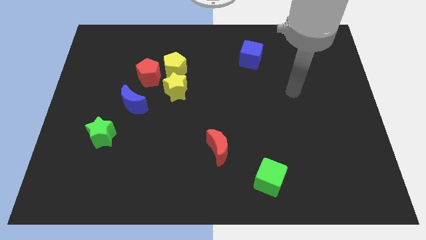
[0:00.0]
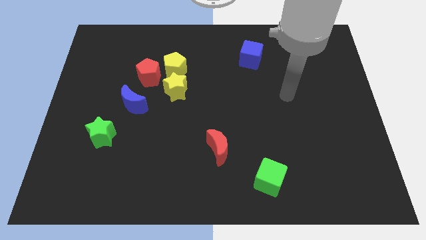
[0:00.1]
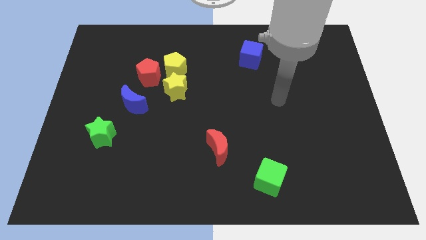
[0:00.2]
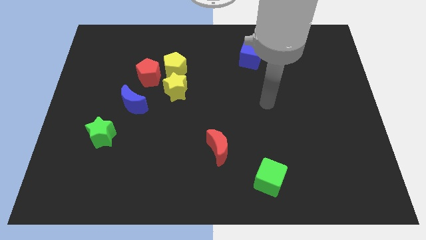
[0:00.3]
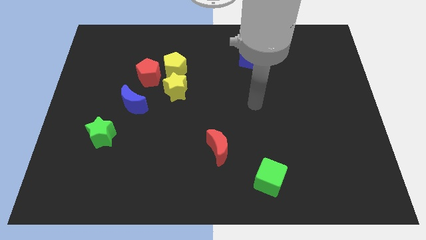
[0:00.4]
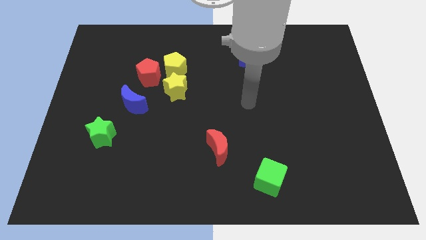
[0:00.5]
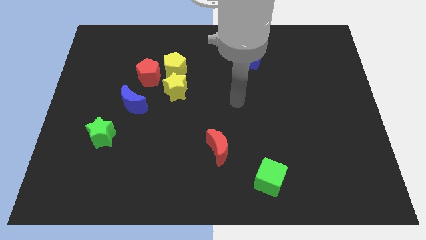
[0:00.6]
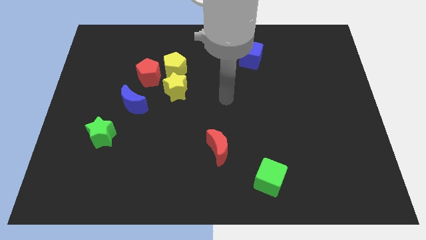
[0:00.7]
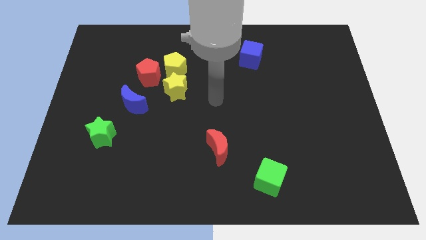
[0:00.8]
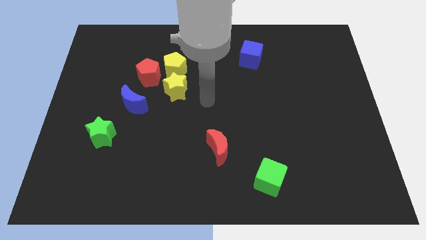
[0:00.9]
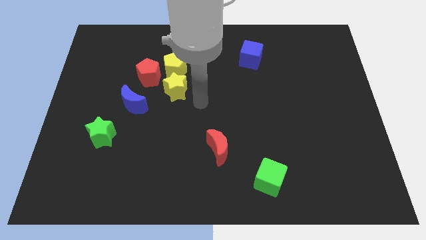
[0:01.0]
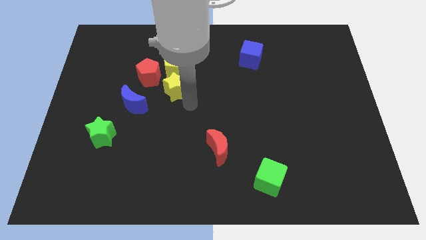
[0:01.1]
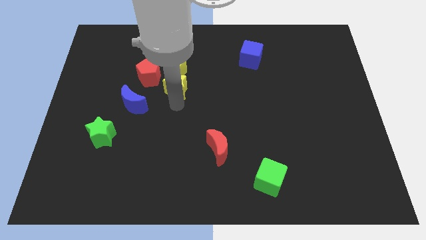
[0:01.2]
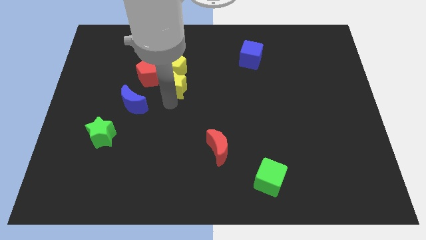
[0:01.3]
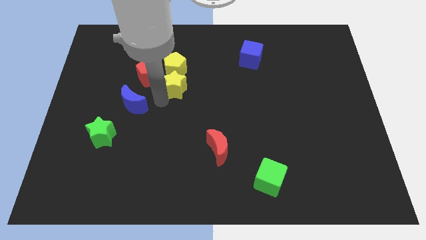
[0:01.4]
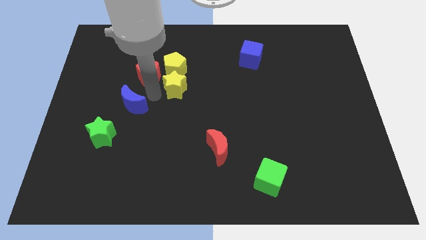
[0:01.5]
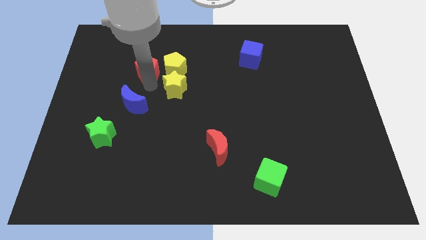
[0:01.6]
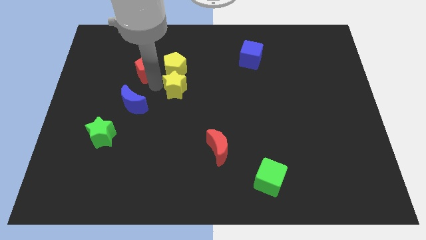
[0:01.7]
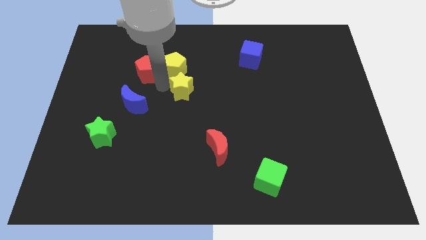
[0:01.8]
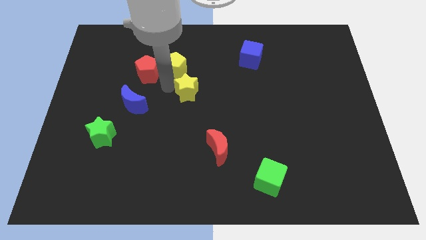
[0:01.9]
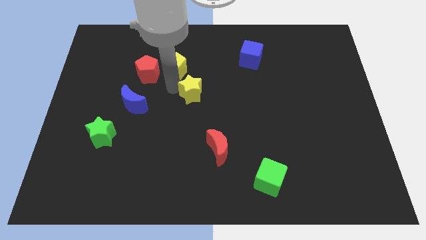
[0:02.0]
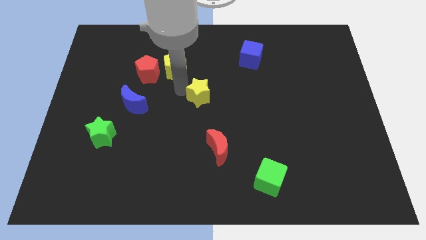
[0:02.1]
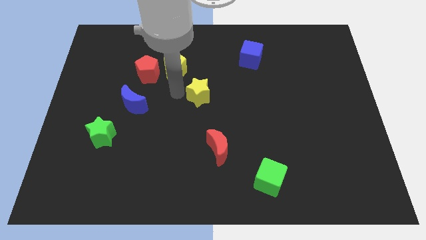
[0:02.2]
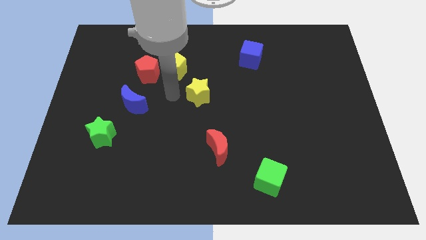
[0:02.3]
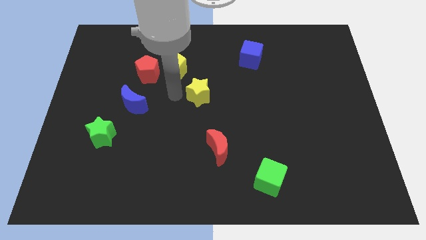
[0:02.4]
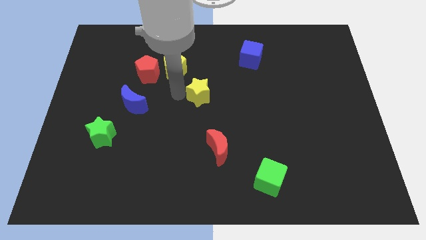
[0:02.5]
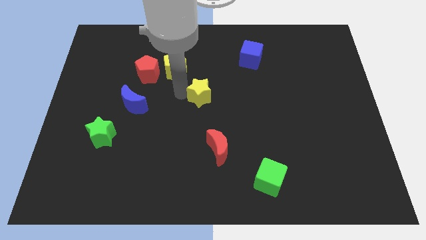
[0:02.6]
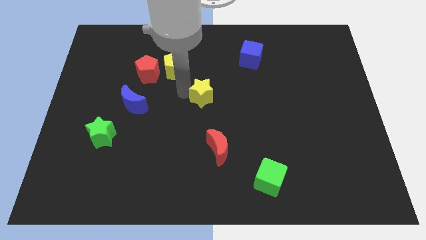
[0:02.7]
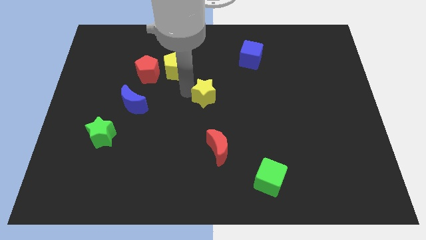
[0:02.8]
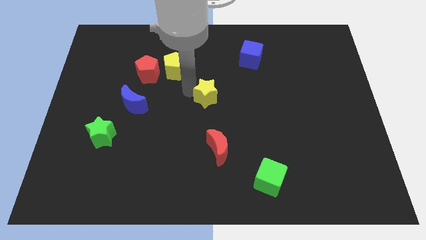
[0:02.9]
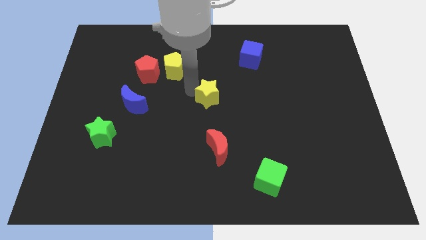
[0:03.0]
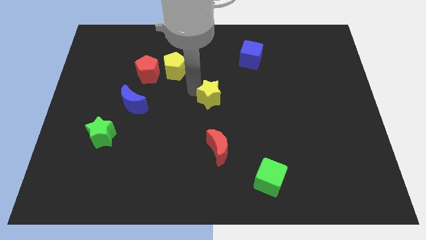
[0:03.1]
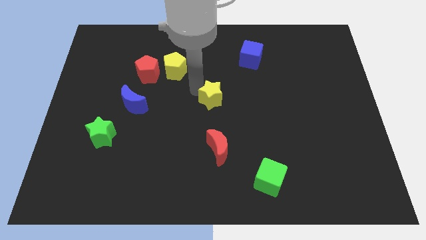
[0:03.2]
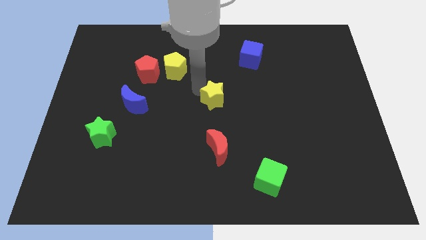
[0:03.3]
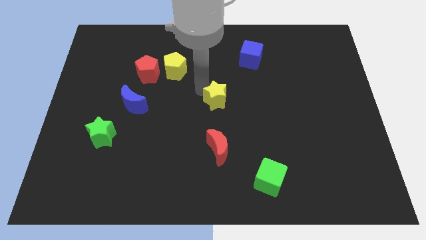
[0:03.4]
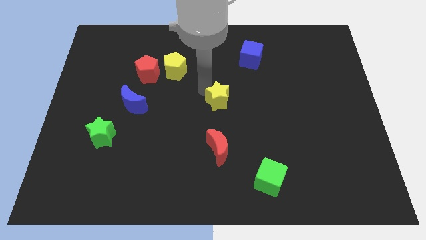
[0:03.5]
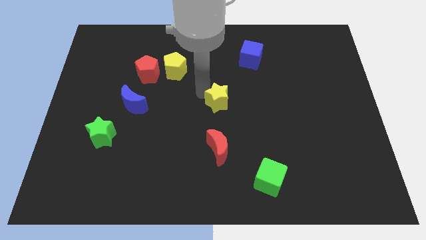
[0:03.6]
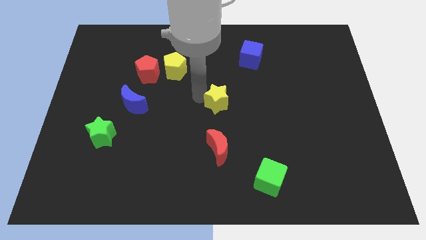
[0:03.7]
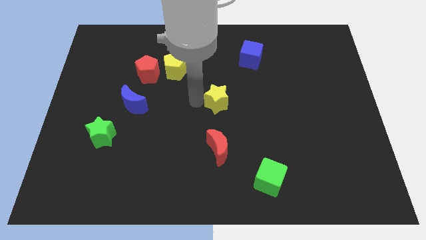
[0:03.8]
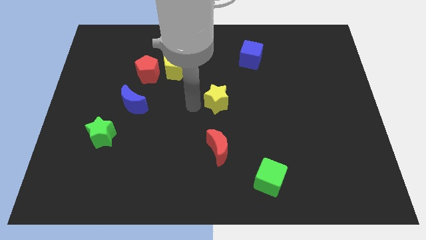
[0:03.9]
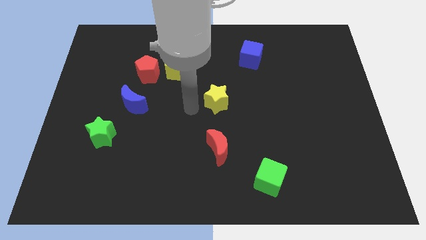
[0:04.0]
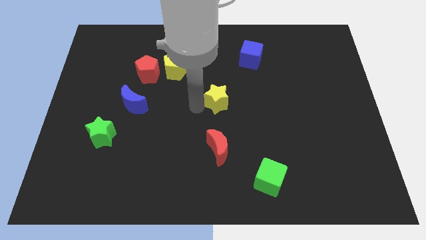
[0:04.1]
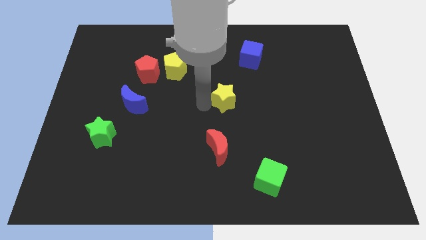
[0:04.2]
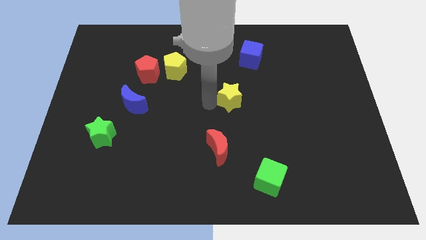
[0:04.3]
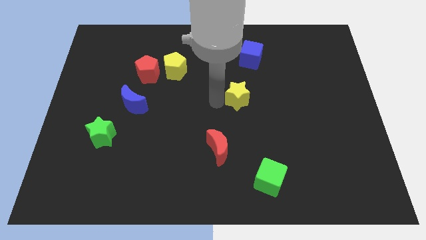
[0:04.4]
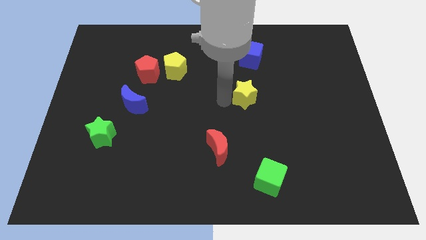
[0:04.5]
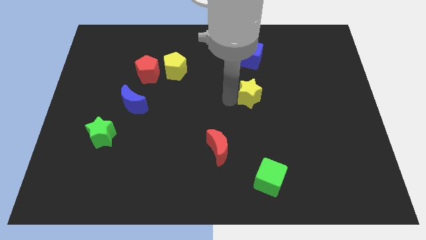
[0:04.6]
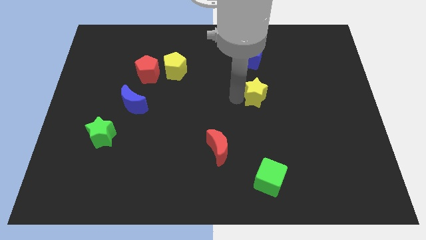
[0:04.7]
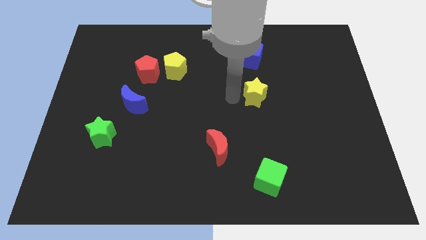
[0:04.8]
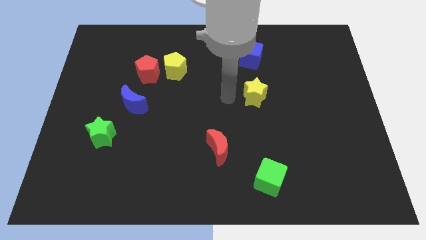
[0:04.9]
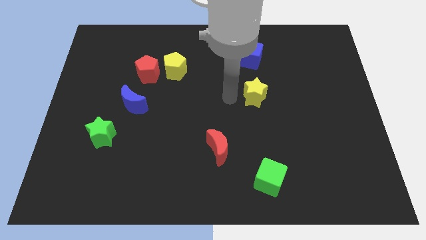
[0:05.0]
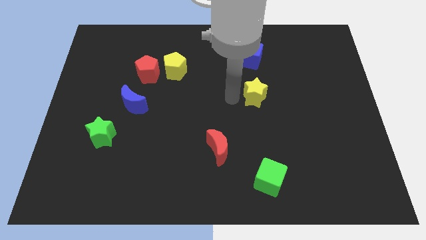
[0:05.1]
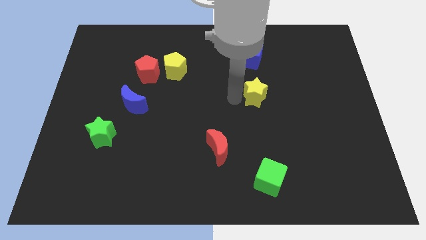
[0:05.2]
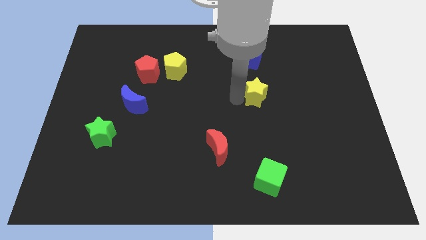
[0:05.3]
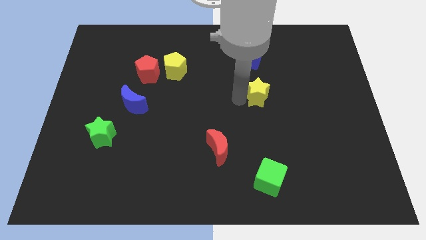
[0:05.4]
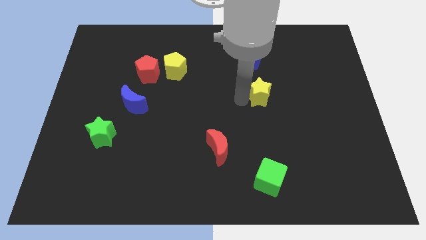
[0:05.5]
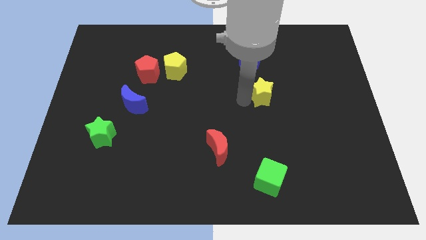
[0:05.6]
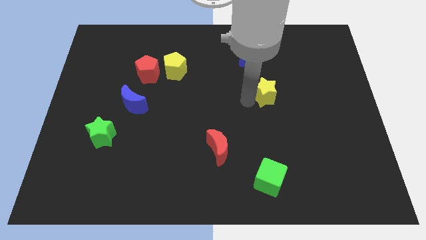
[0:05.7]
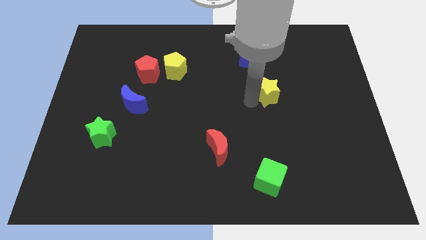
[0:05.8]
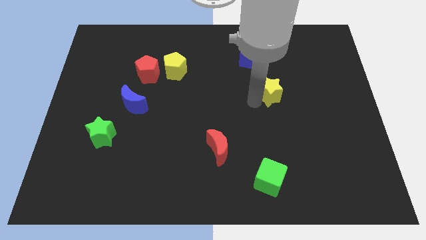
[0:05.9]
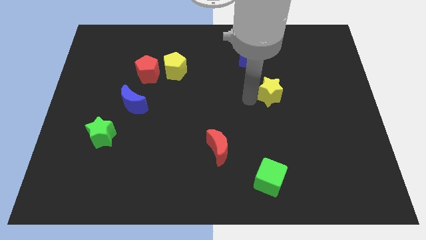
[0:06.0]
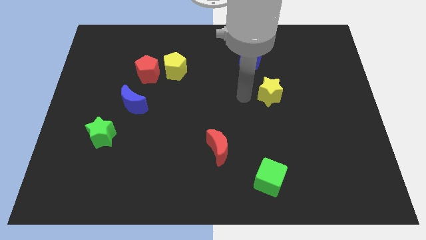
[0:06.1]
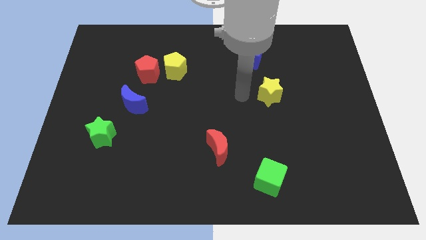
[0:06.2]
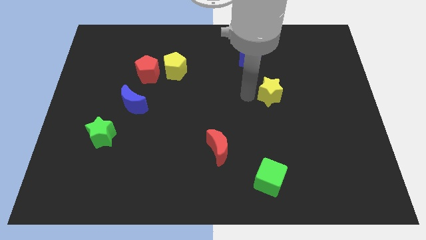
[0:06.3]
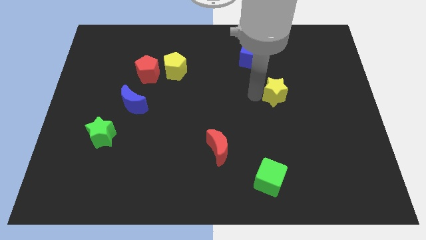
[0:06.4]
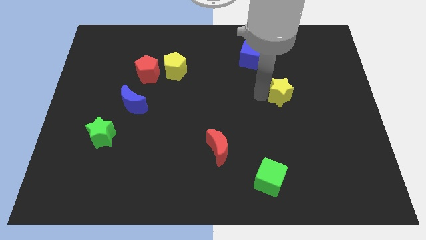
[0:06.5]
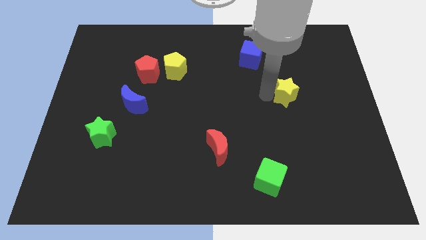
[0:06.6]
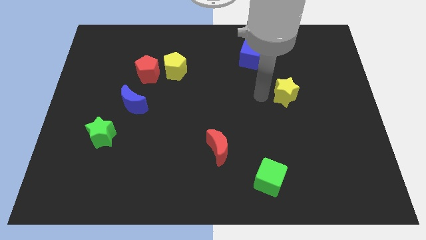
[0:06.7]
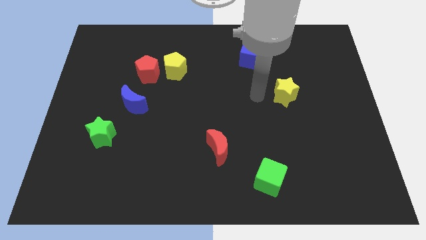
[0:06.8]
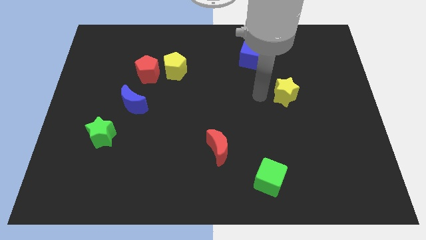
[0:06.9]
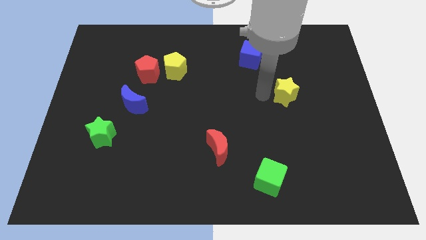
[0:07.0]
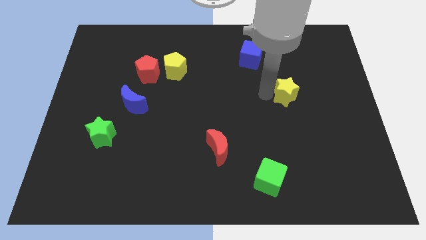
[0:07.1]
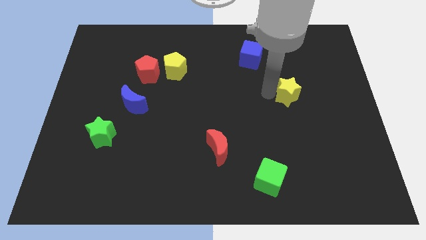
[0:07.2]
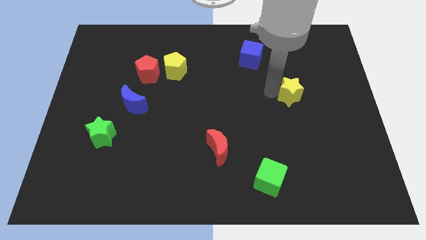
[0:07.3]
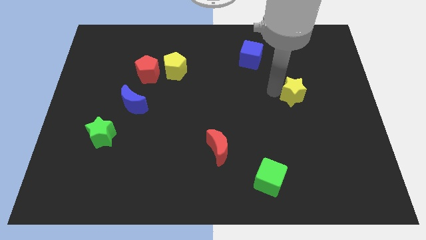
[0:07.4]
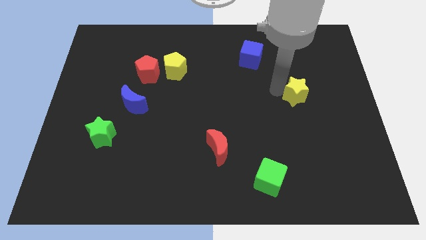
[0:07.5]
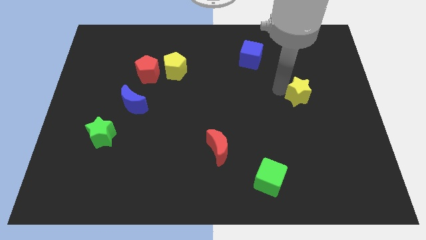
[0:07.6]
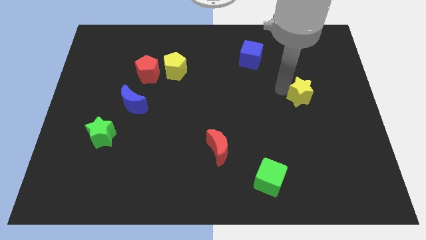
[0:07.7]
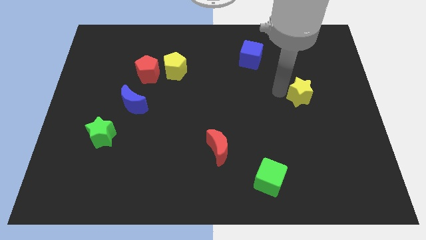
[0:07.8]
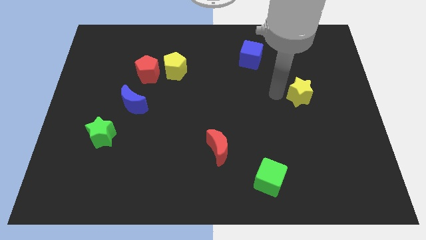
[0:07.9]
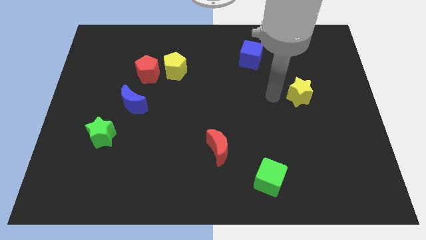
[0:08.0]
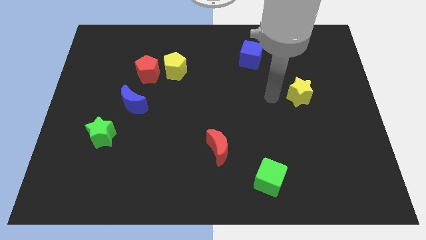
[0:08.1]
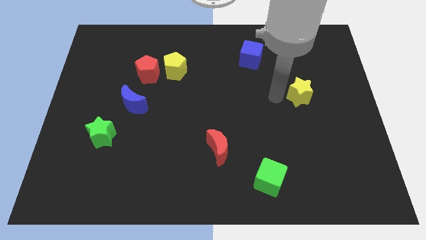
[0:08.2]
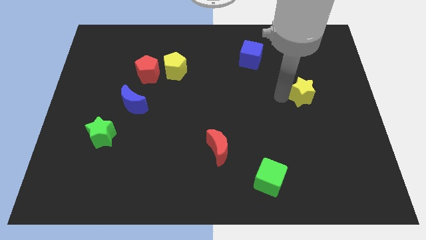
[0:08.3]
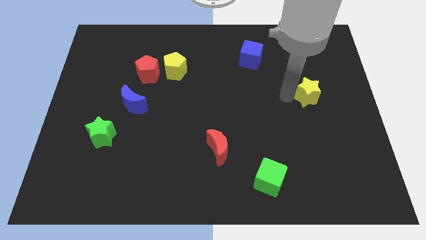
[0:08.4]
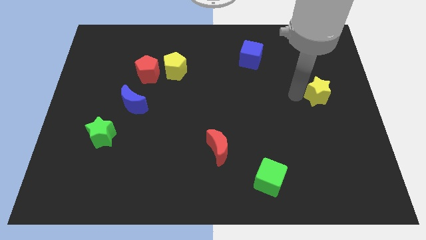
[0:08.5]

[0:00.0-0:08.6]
slide the yellow star to the center right
